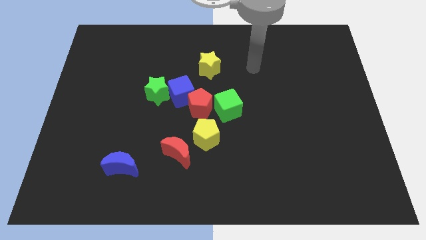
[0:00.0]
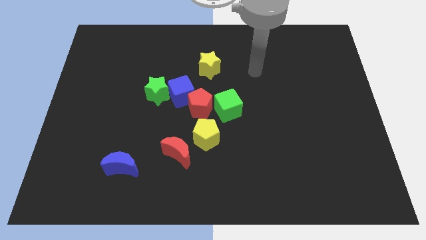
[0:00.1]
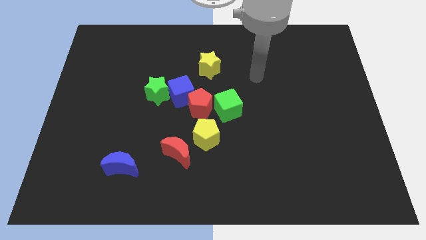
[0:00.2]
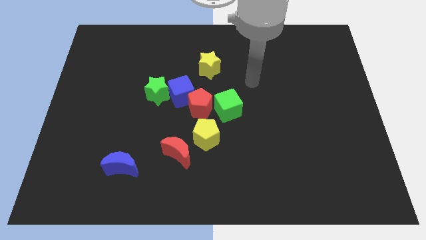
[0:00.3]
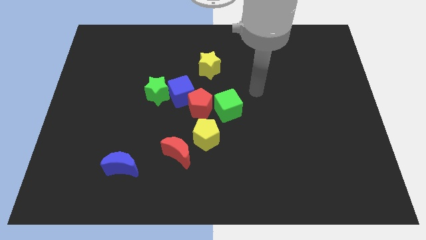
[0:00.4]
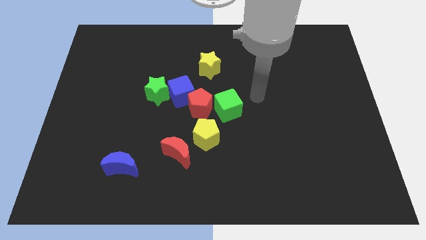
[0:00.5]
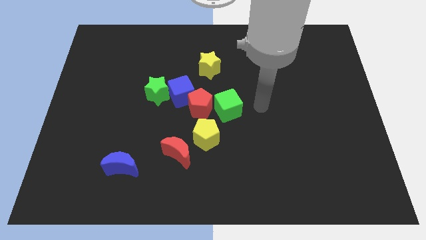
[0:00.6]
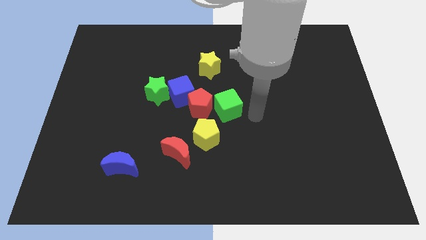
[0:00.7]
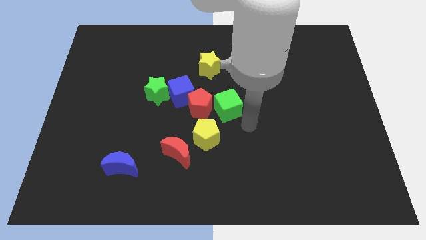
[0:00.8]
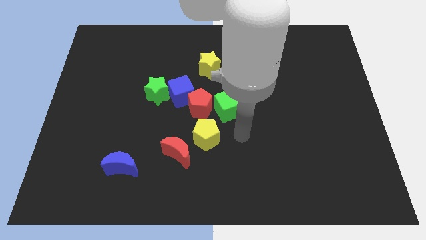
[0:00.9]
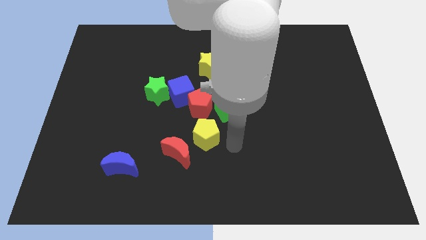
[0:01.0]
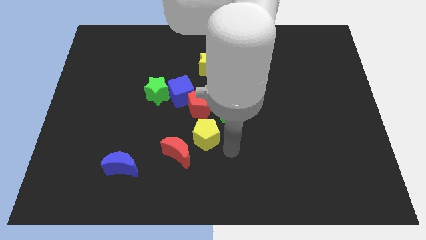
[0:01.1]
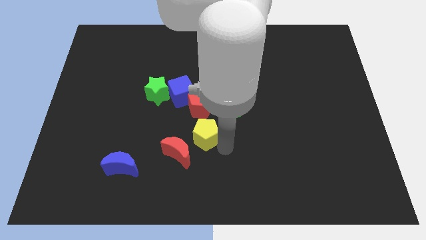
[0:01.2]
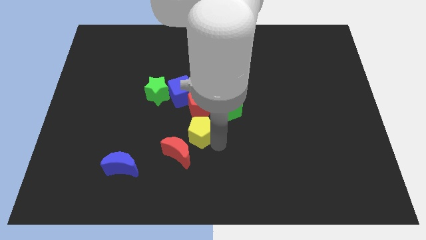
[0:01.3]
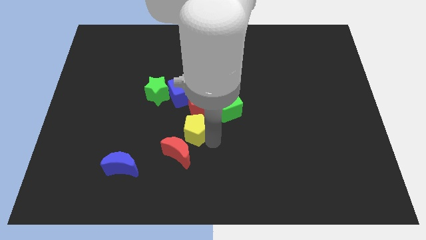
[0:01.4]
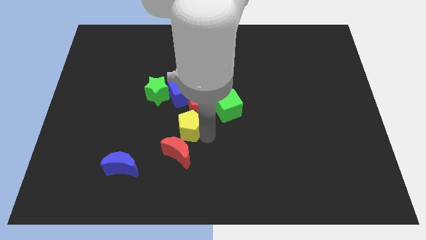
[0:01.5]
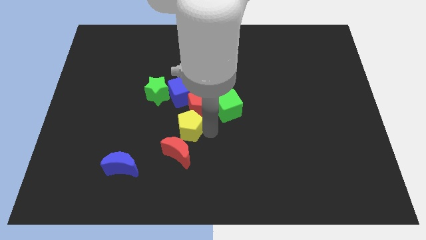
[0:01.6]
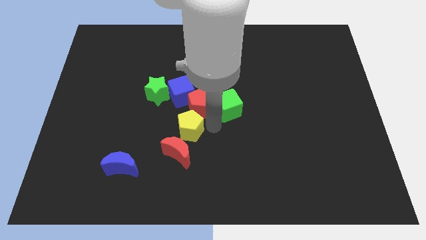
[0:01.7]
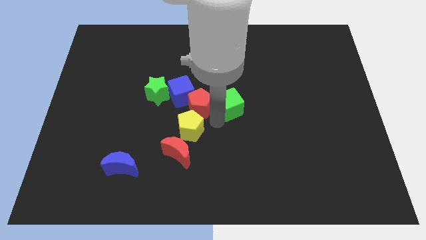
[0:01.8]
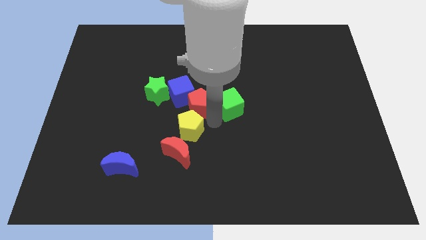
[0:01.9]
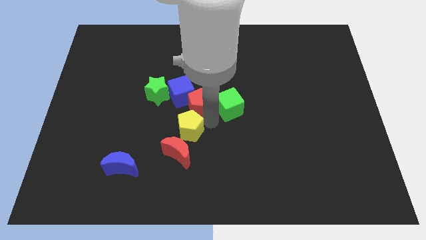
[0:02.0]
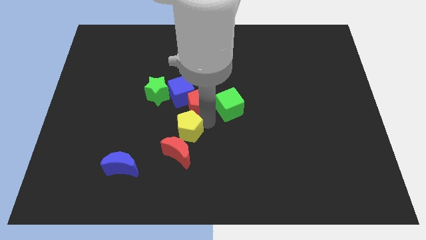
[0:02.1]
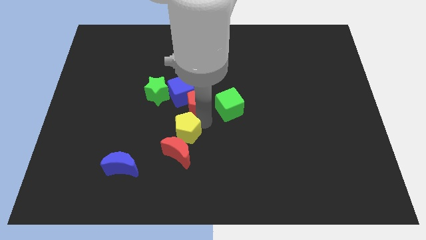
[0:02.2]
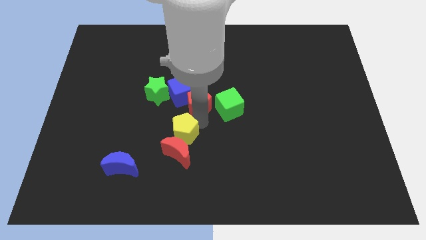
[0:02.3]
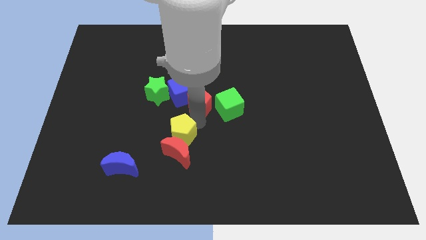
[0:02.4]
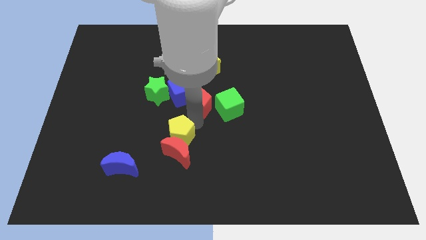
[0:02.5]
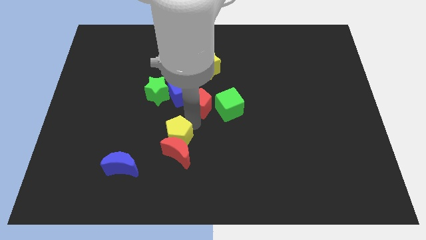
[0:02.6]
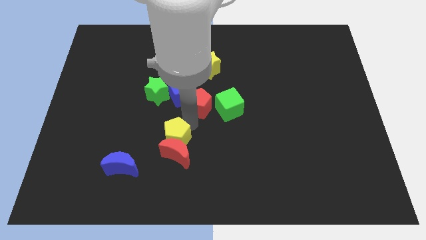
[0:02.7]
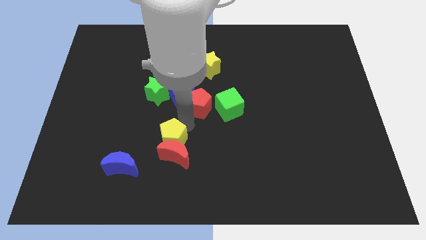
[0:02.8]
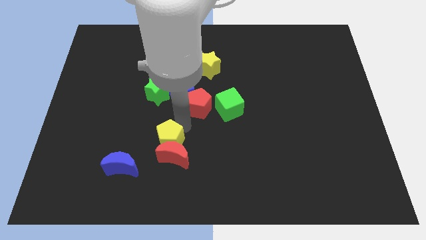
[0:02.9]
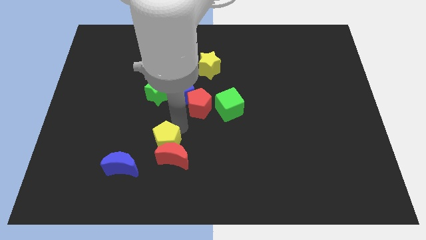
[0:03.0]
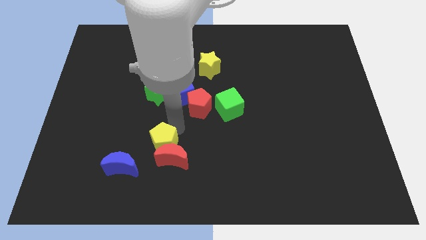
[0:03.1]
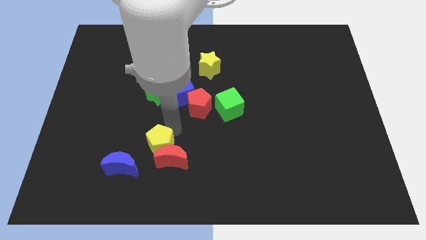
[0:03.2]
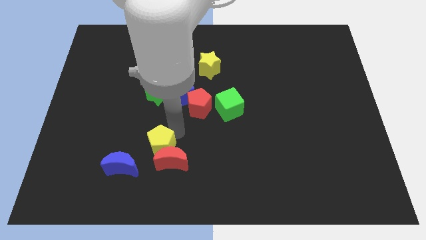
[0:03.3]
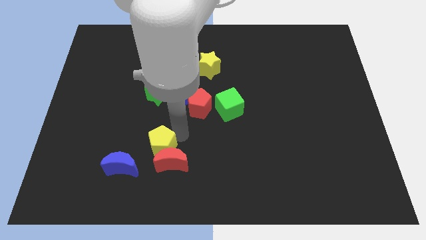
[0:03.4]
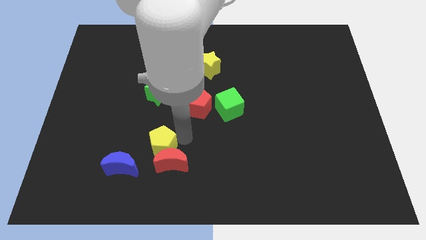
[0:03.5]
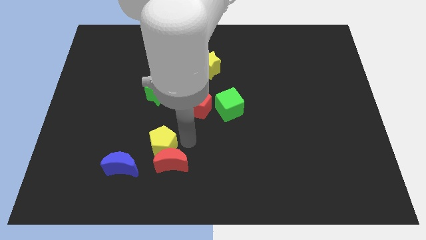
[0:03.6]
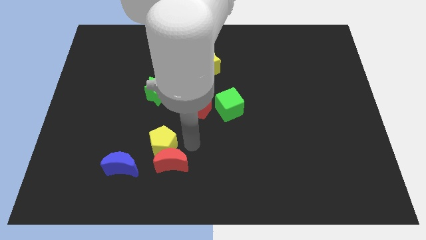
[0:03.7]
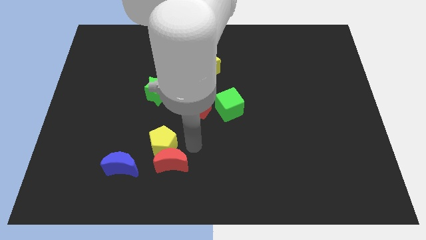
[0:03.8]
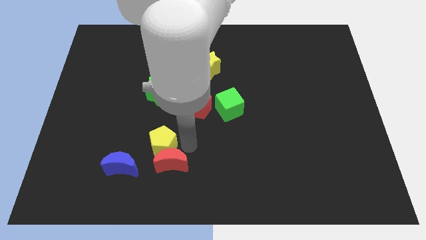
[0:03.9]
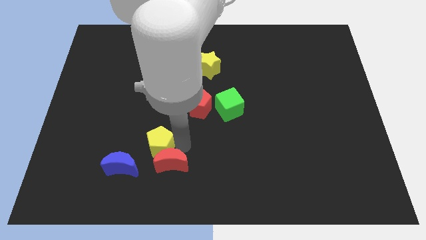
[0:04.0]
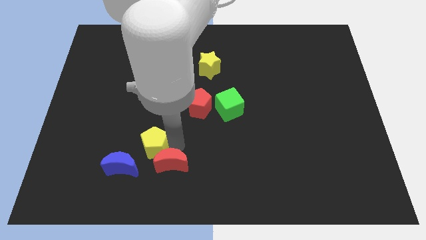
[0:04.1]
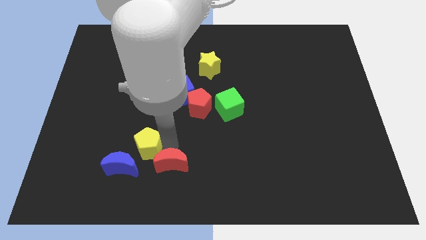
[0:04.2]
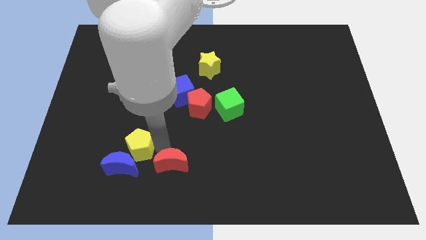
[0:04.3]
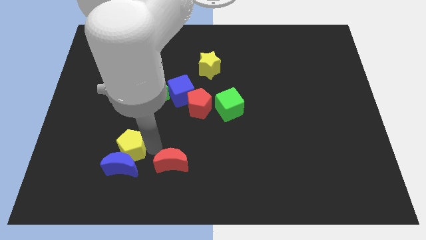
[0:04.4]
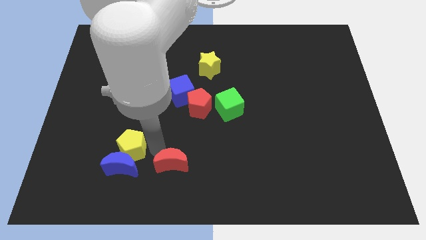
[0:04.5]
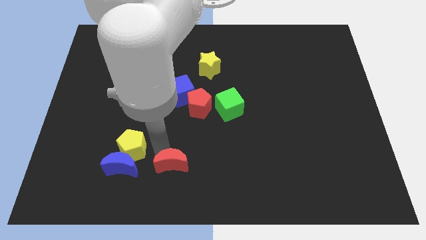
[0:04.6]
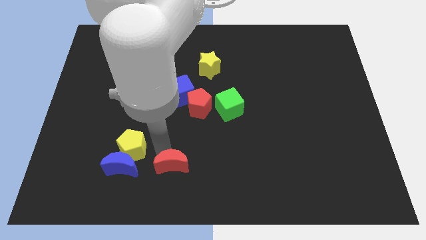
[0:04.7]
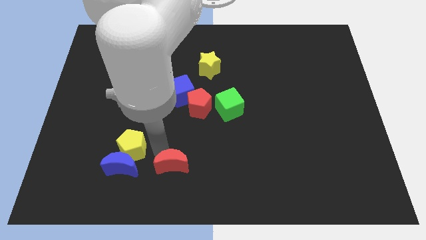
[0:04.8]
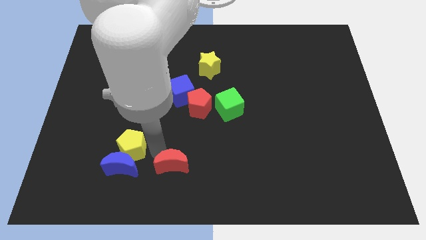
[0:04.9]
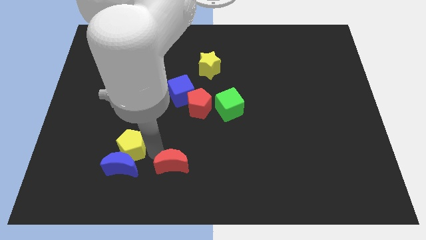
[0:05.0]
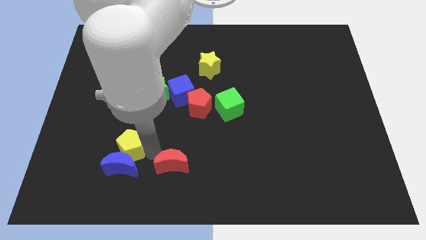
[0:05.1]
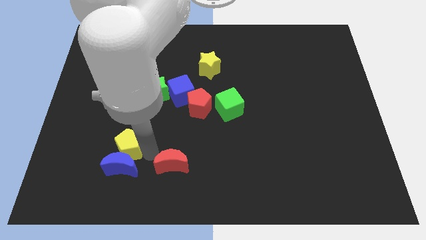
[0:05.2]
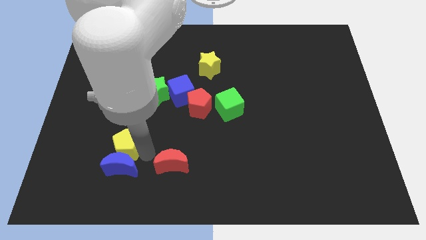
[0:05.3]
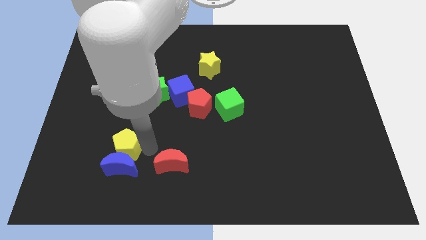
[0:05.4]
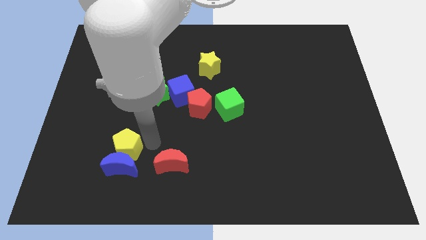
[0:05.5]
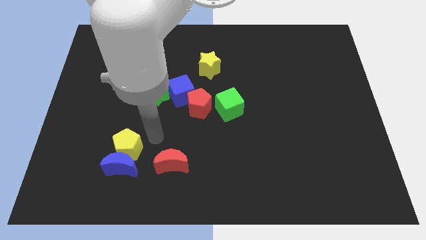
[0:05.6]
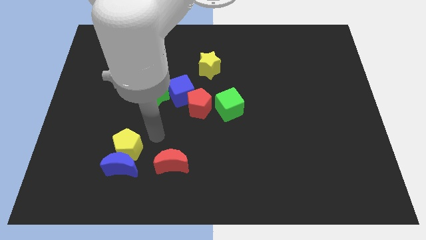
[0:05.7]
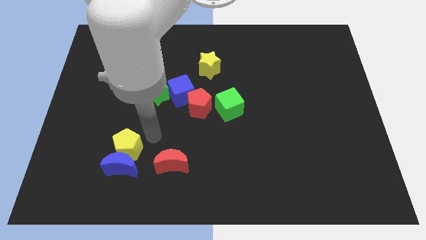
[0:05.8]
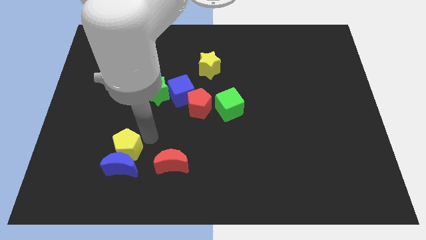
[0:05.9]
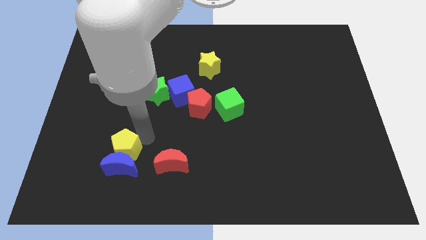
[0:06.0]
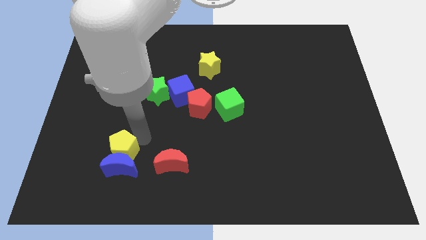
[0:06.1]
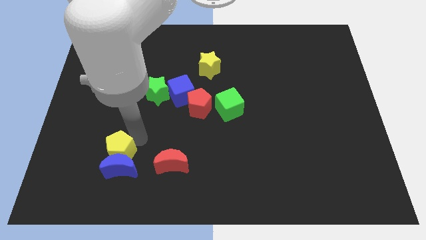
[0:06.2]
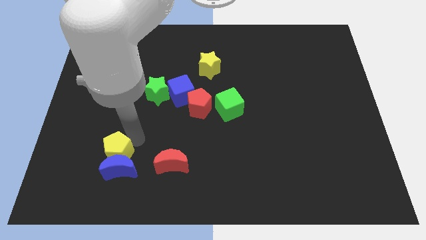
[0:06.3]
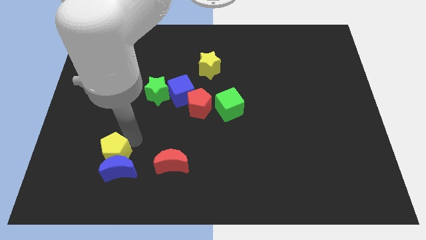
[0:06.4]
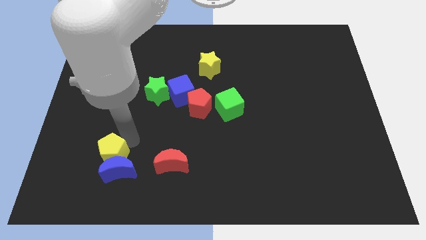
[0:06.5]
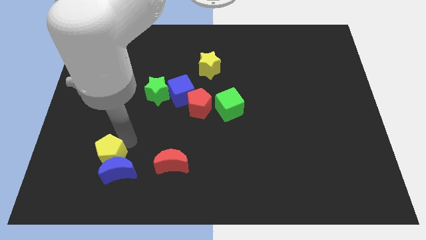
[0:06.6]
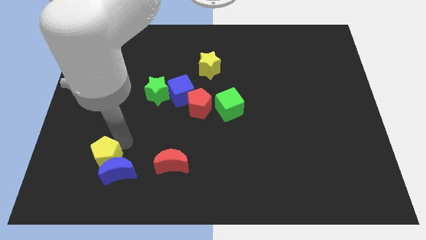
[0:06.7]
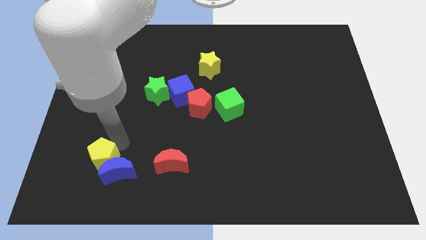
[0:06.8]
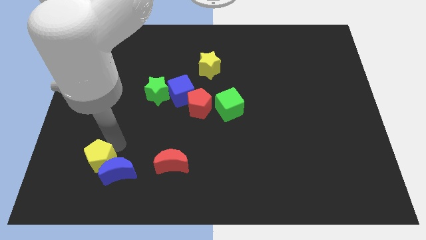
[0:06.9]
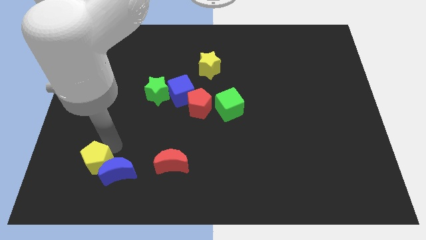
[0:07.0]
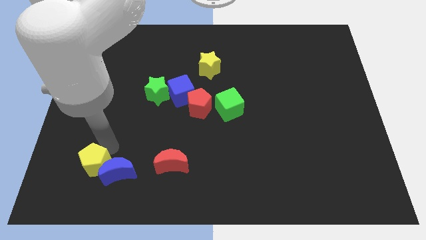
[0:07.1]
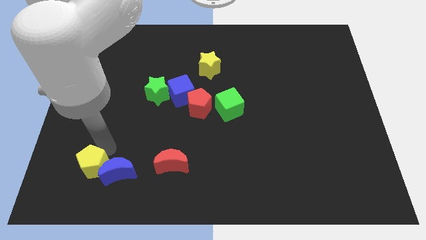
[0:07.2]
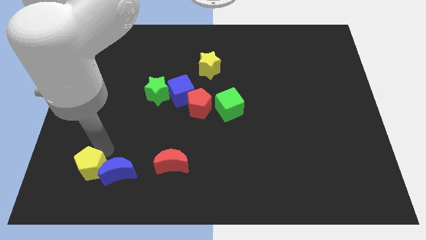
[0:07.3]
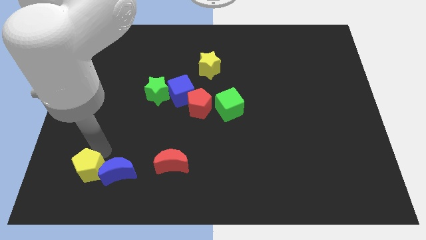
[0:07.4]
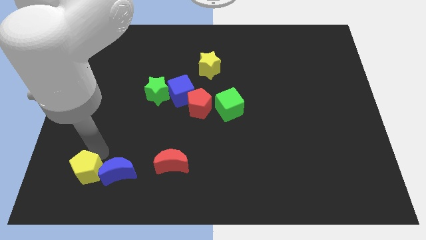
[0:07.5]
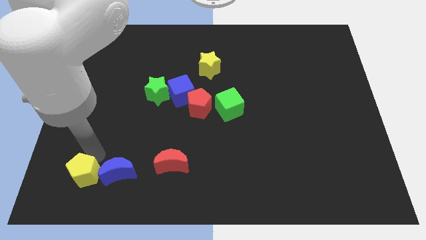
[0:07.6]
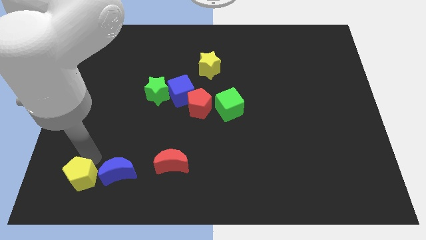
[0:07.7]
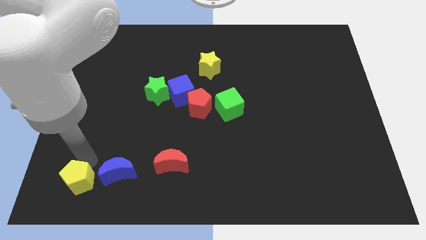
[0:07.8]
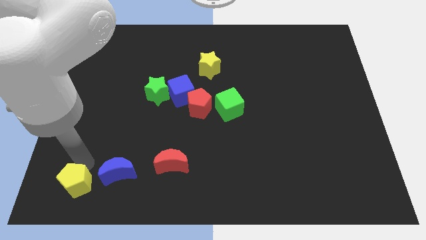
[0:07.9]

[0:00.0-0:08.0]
move the yellow pentagon to the lower left corner
